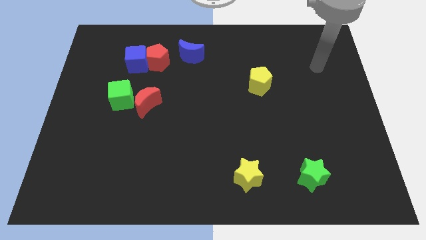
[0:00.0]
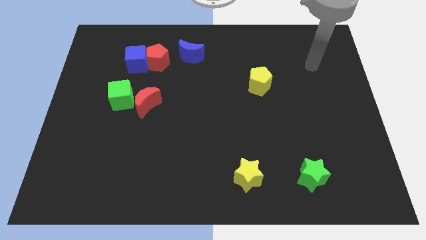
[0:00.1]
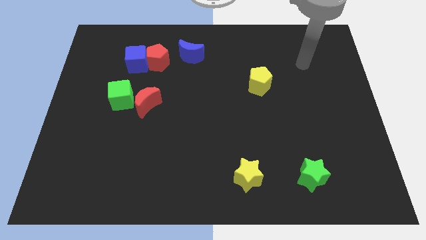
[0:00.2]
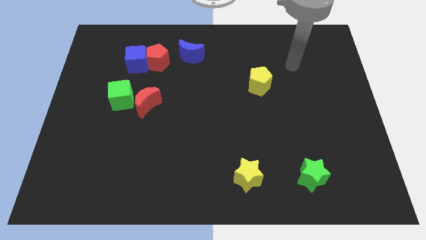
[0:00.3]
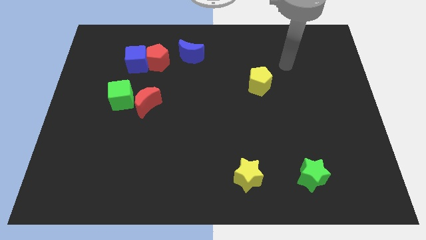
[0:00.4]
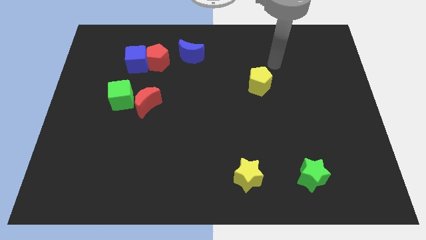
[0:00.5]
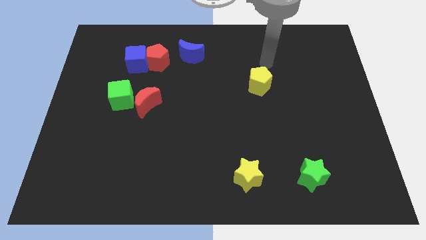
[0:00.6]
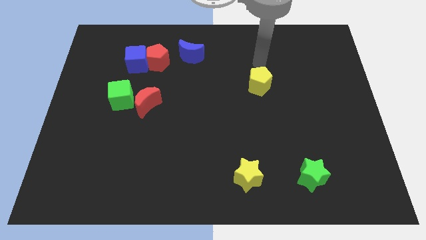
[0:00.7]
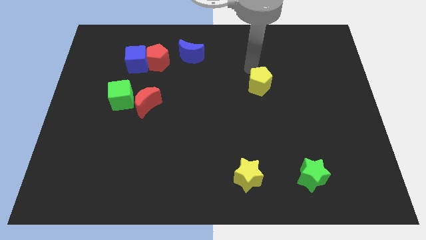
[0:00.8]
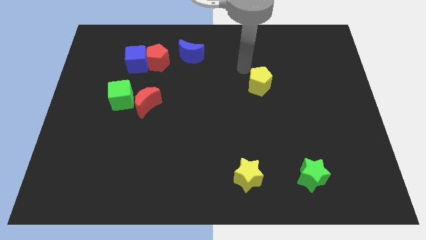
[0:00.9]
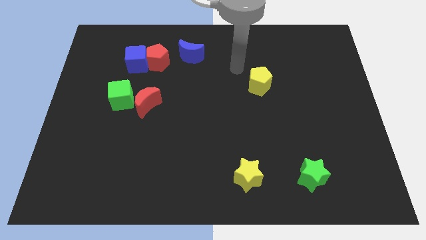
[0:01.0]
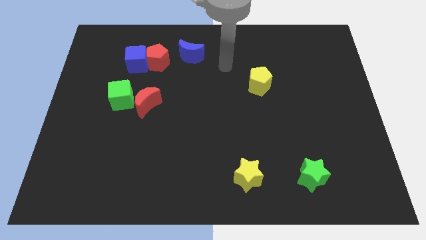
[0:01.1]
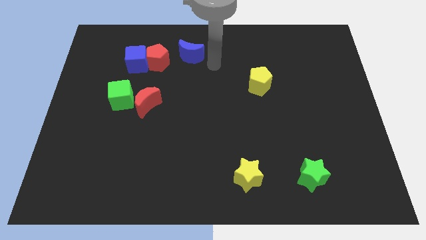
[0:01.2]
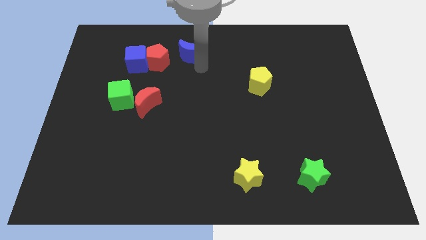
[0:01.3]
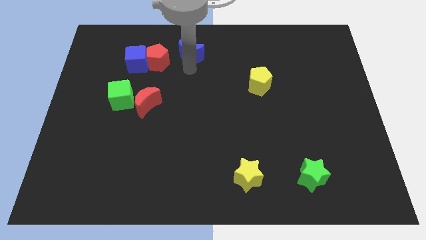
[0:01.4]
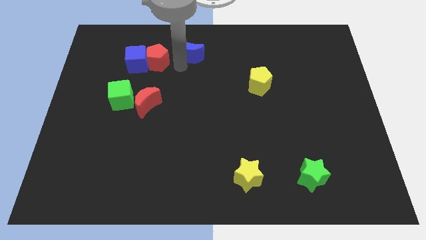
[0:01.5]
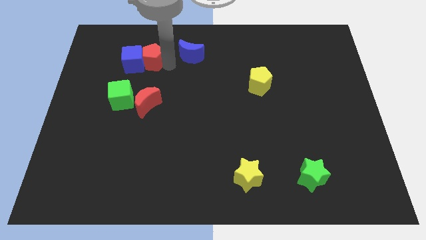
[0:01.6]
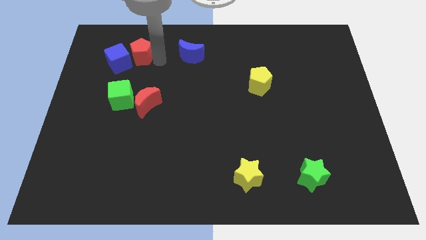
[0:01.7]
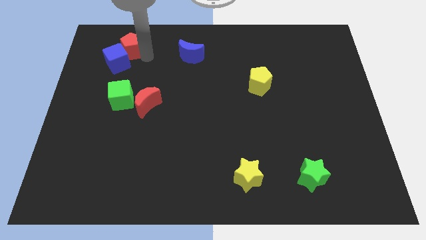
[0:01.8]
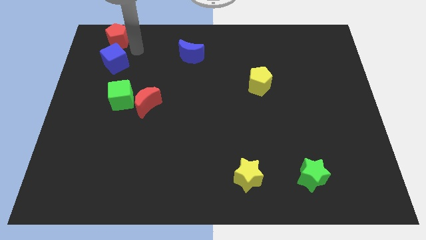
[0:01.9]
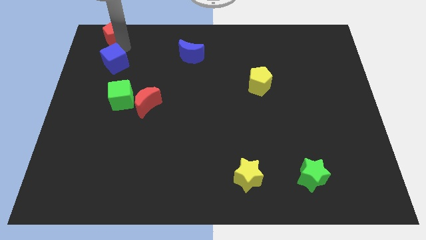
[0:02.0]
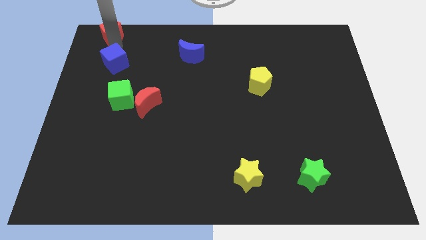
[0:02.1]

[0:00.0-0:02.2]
move the blue cube away from the red pentagon

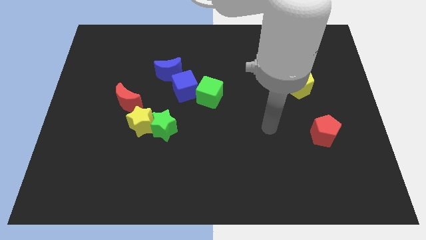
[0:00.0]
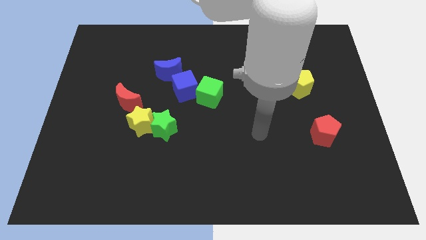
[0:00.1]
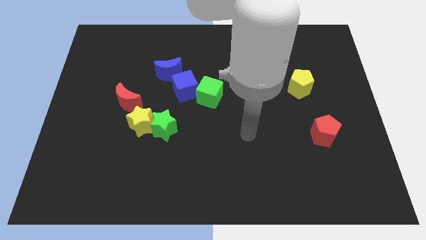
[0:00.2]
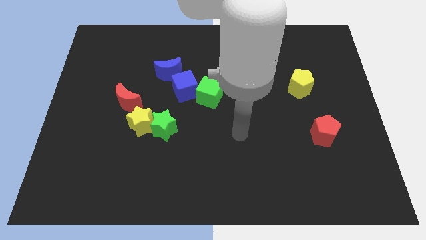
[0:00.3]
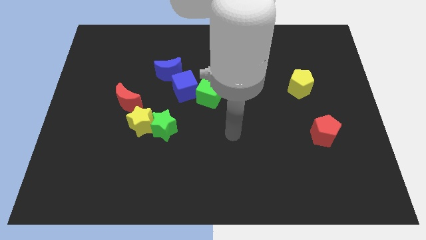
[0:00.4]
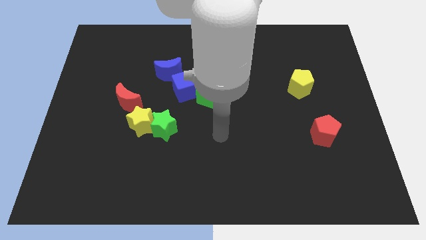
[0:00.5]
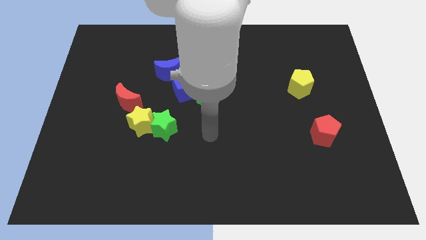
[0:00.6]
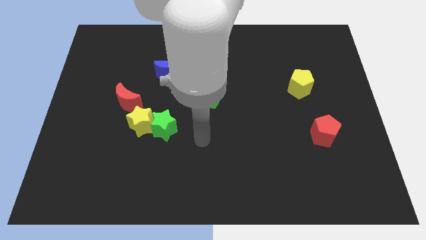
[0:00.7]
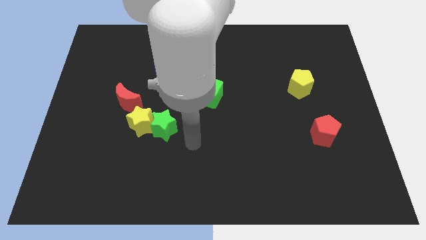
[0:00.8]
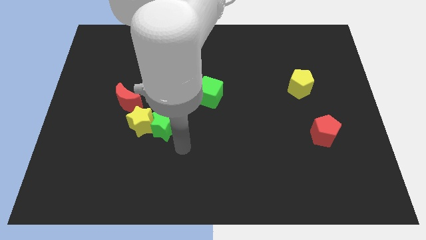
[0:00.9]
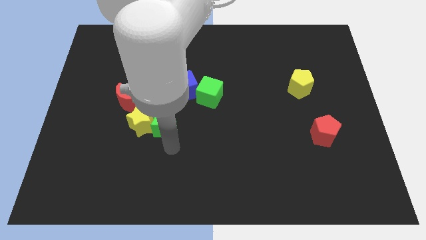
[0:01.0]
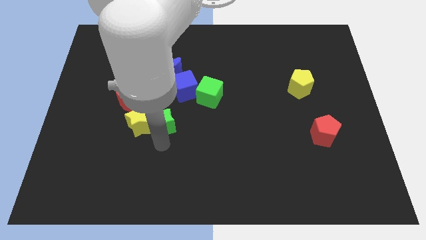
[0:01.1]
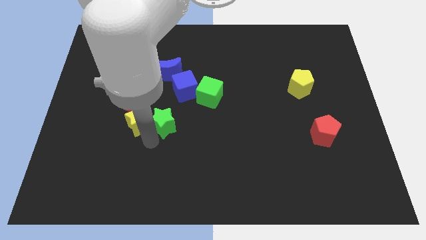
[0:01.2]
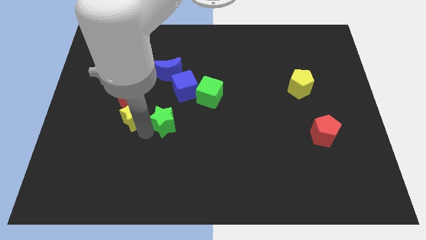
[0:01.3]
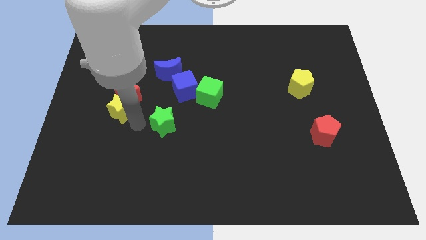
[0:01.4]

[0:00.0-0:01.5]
move the green star away from the yellow star

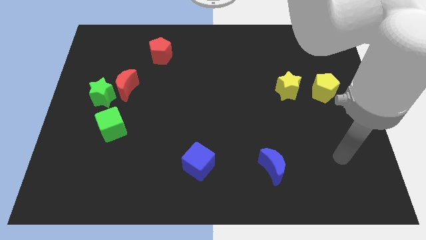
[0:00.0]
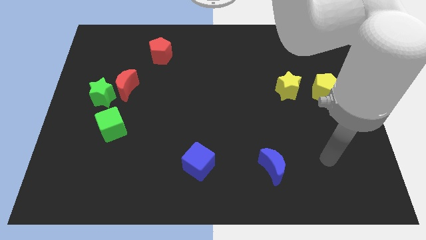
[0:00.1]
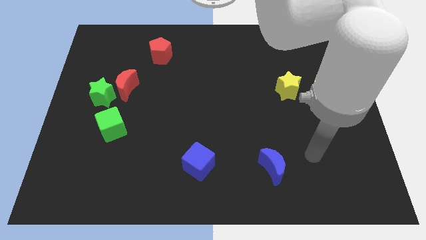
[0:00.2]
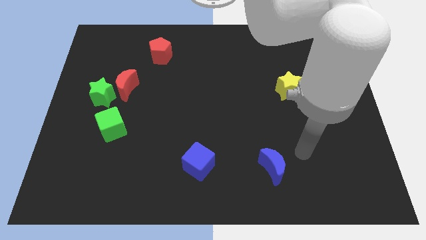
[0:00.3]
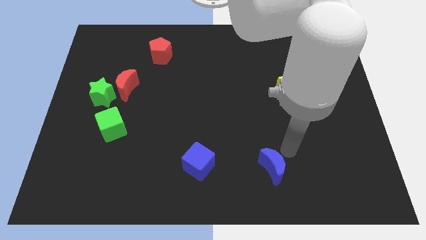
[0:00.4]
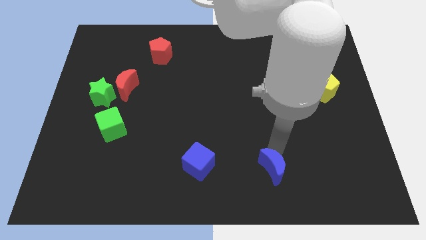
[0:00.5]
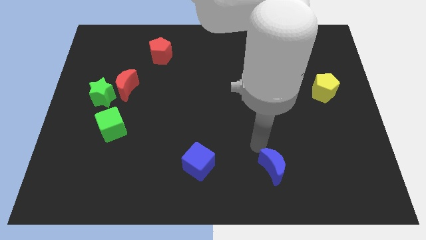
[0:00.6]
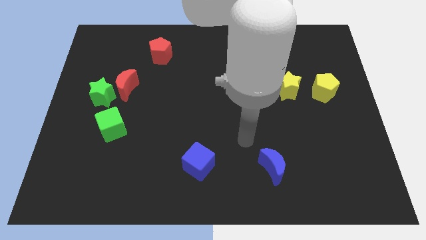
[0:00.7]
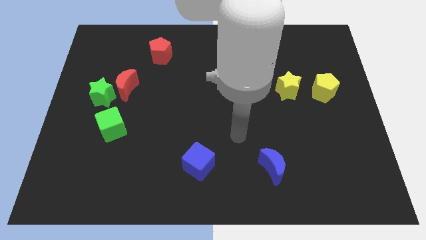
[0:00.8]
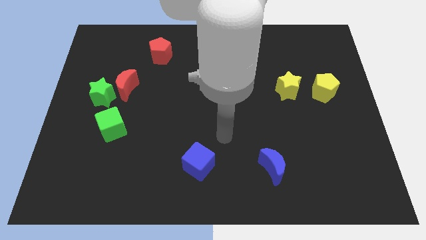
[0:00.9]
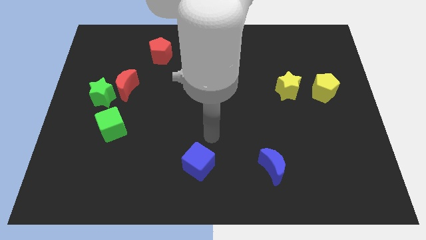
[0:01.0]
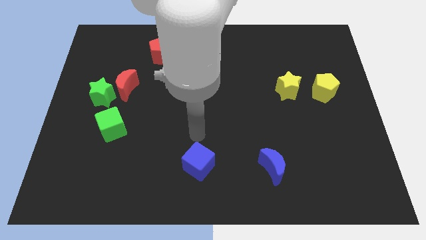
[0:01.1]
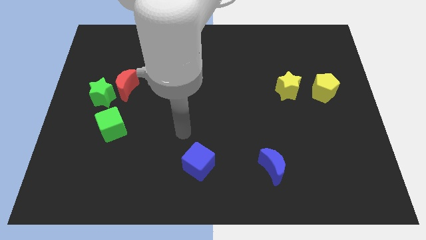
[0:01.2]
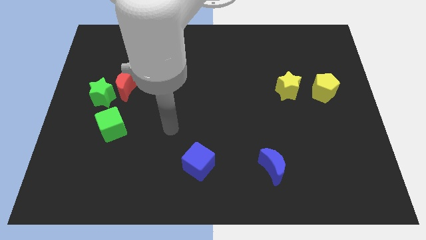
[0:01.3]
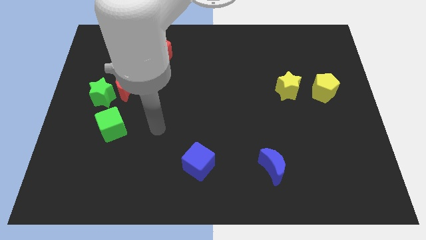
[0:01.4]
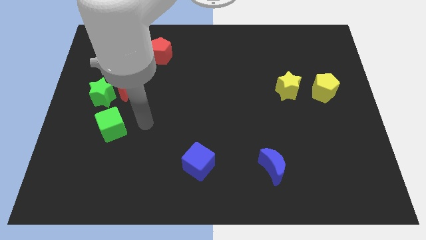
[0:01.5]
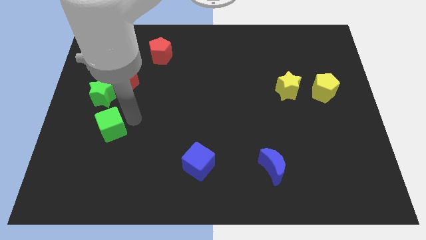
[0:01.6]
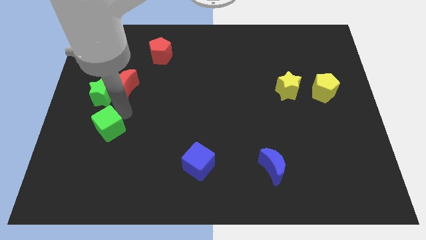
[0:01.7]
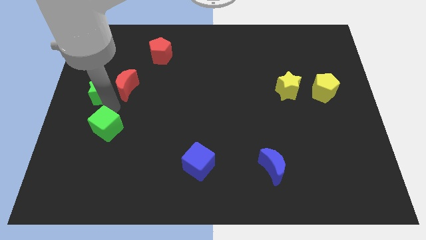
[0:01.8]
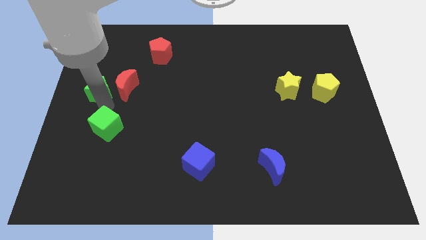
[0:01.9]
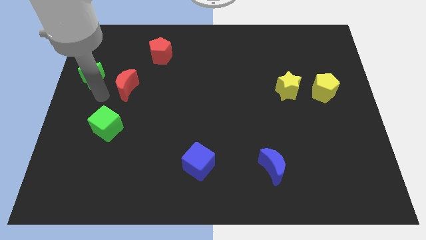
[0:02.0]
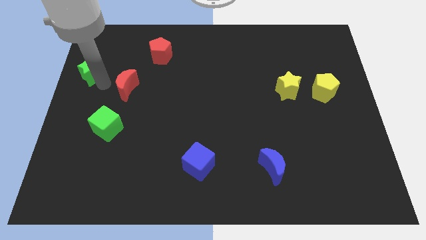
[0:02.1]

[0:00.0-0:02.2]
move the red moon away from the green star

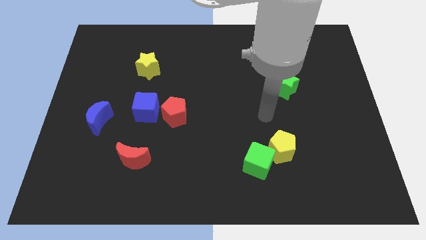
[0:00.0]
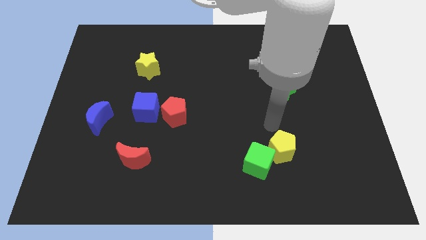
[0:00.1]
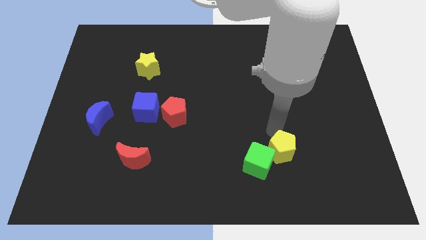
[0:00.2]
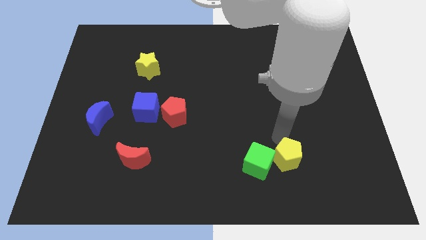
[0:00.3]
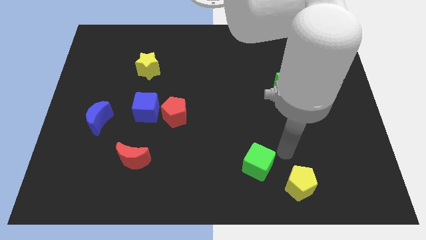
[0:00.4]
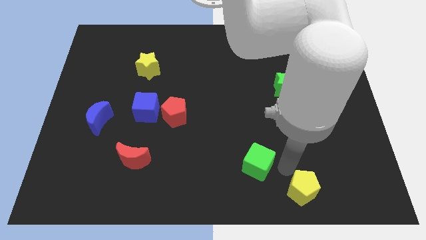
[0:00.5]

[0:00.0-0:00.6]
pull the green cube apart from the yellow pentagon

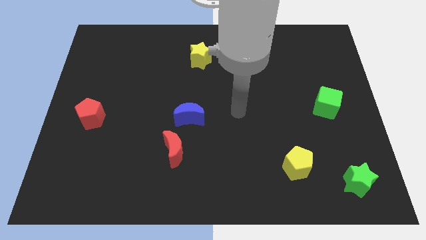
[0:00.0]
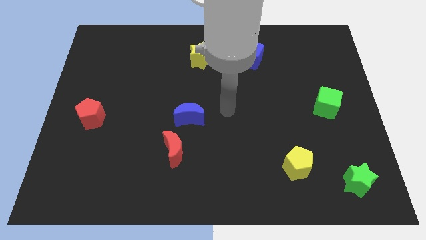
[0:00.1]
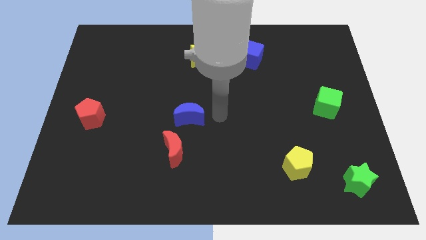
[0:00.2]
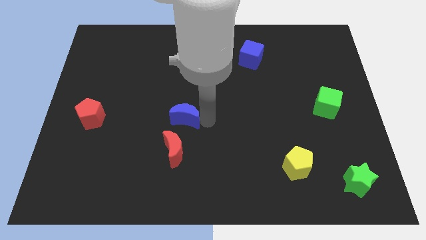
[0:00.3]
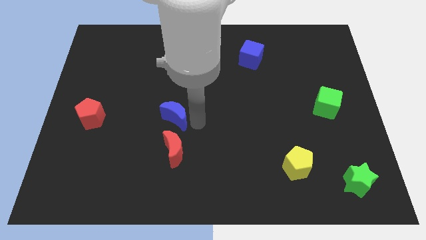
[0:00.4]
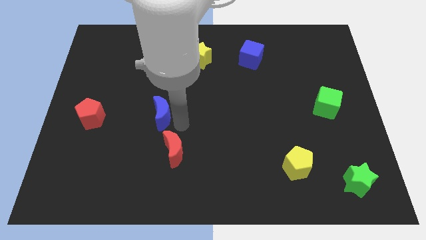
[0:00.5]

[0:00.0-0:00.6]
move the red moon away from the blue moon

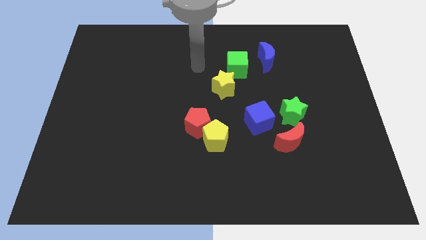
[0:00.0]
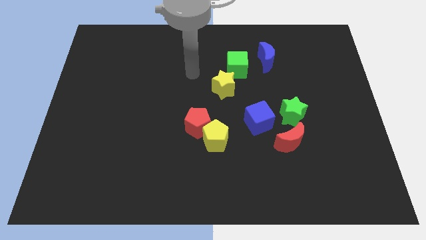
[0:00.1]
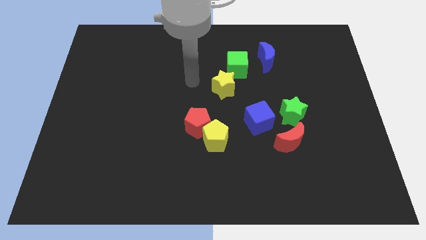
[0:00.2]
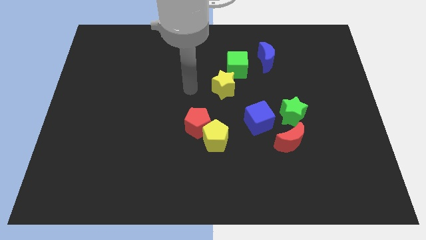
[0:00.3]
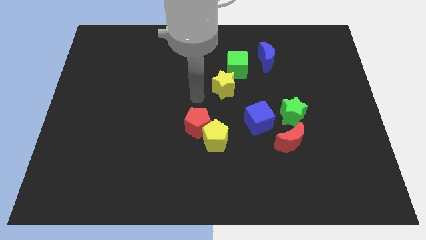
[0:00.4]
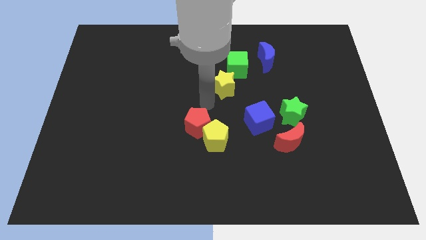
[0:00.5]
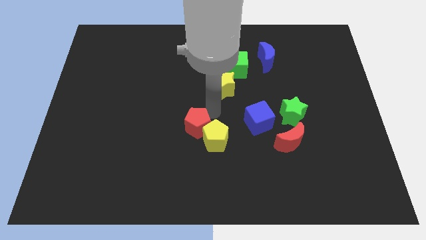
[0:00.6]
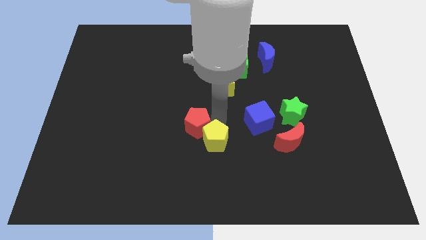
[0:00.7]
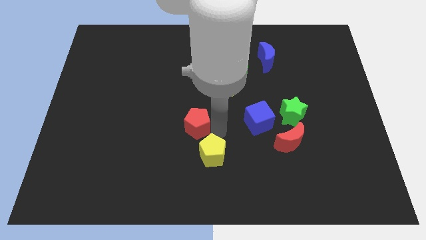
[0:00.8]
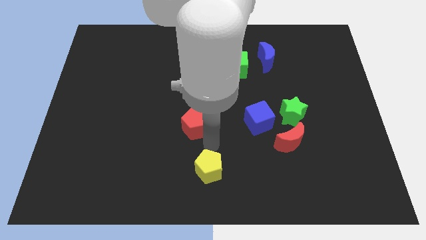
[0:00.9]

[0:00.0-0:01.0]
pull the red pentagon apart from the yellow pentagon

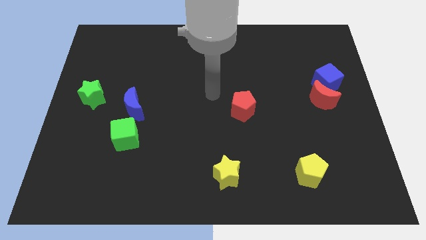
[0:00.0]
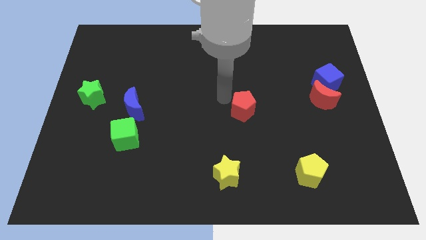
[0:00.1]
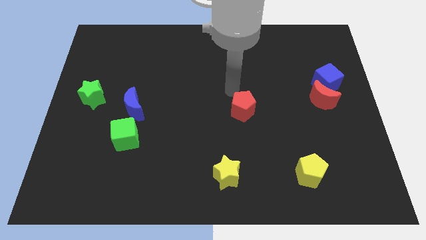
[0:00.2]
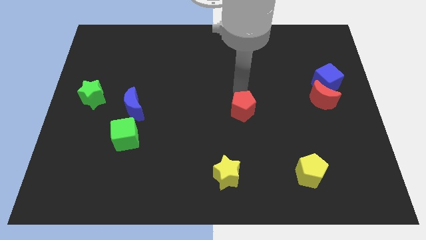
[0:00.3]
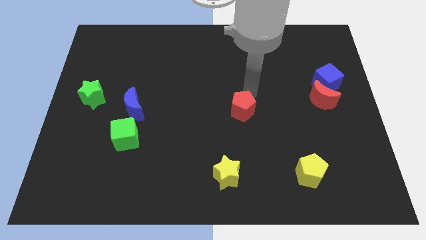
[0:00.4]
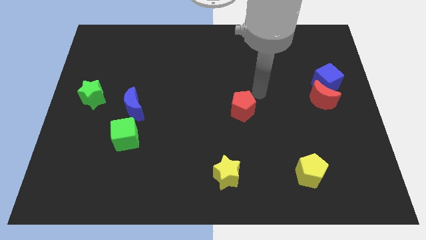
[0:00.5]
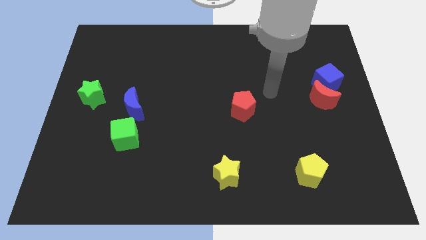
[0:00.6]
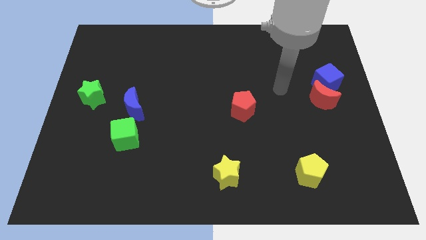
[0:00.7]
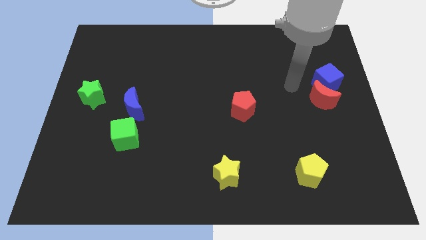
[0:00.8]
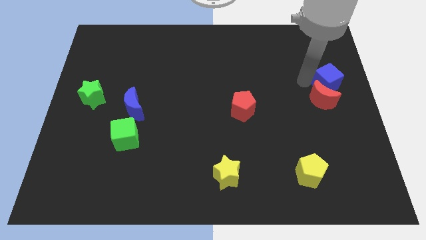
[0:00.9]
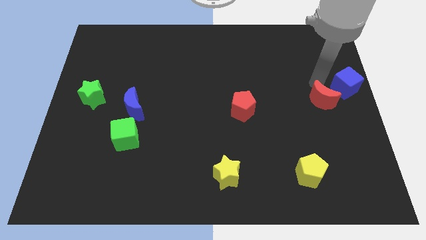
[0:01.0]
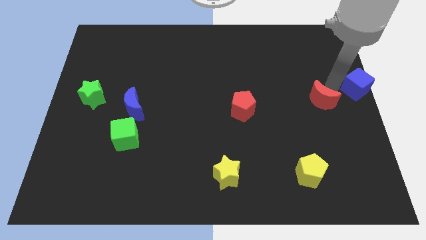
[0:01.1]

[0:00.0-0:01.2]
move the red moon away from the blue cube
